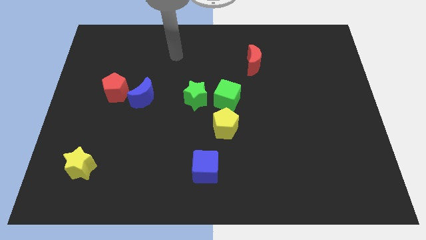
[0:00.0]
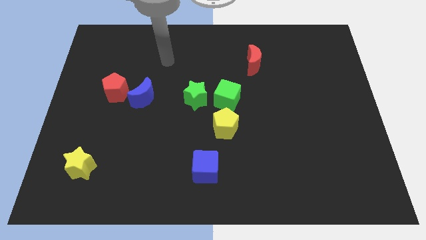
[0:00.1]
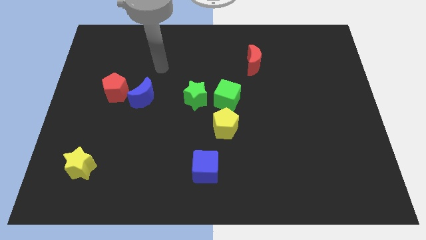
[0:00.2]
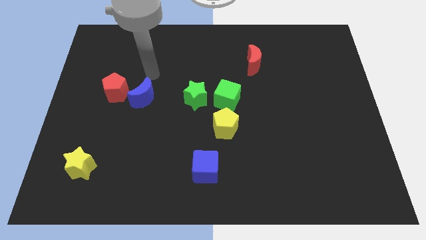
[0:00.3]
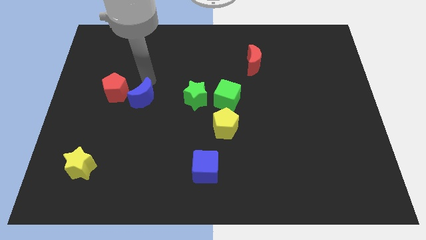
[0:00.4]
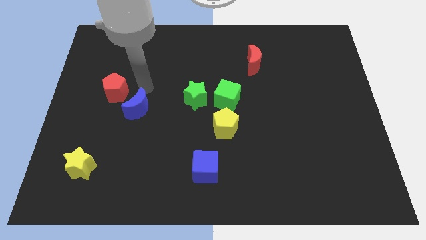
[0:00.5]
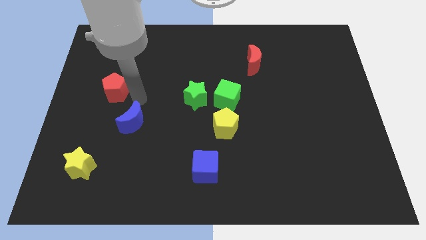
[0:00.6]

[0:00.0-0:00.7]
move the red pentagon away from the blue moon

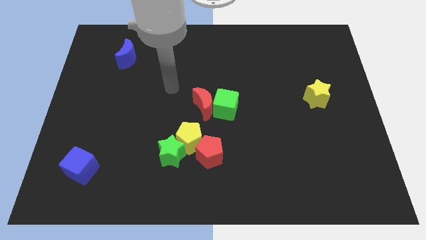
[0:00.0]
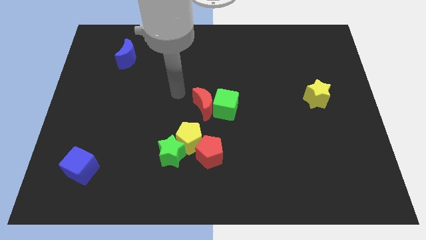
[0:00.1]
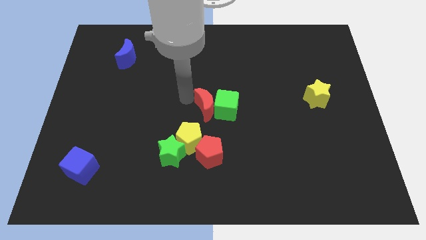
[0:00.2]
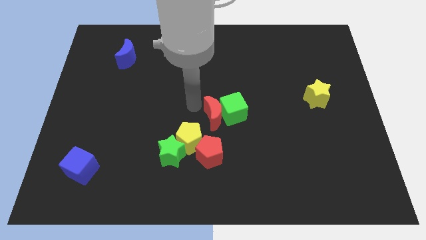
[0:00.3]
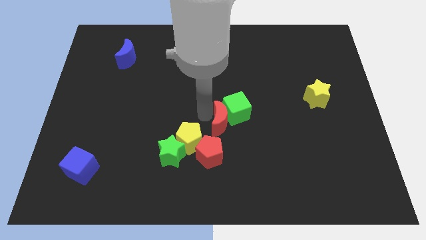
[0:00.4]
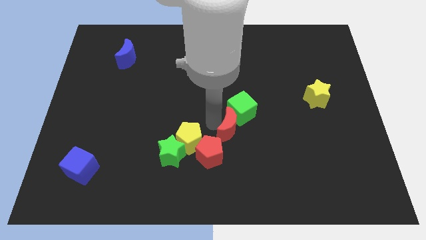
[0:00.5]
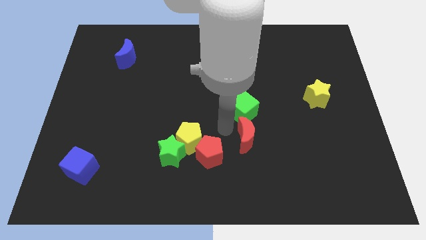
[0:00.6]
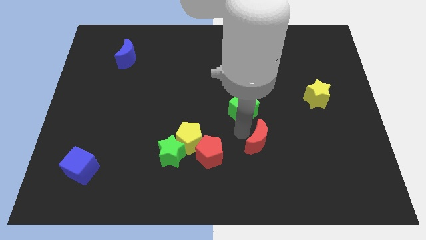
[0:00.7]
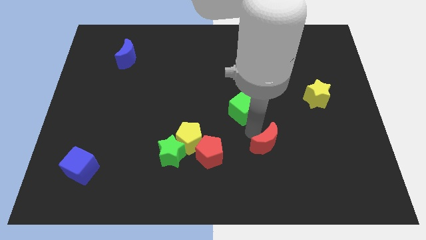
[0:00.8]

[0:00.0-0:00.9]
move the green cube away from the red moon

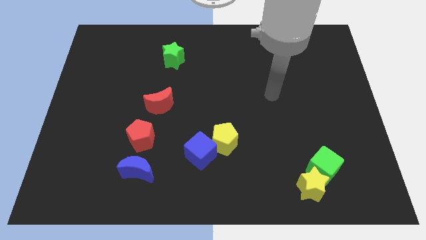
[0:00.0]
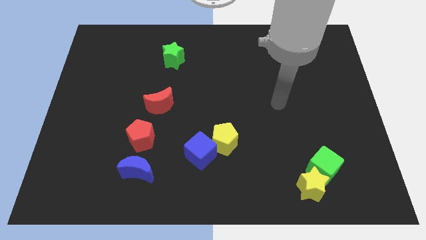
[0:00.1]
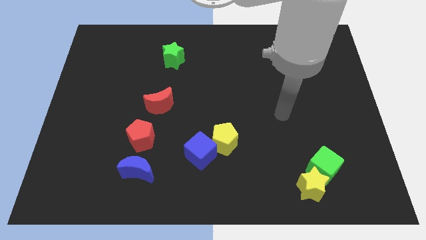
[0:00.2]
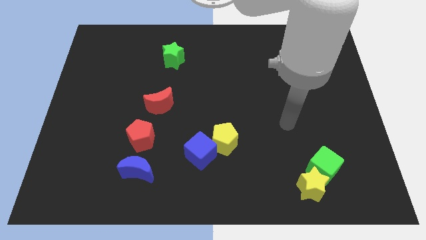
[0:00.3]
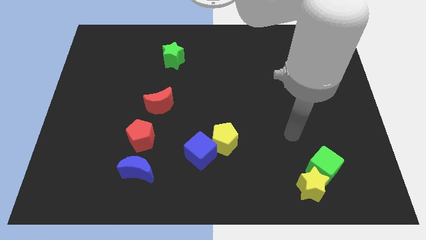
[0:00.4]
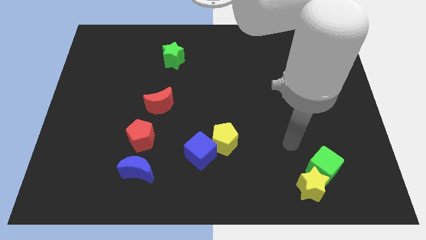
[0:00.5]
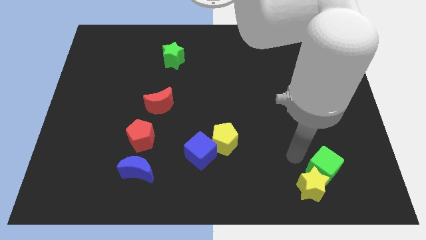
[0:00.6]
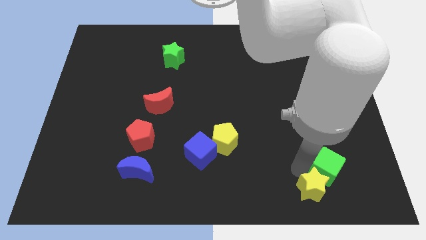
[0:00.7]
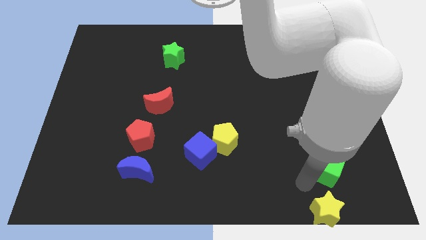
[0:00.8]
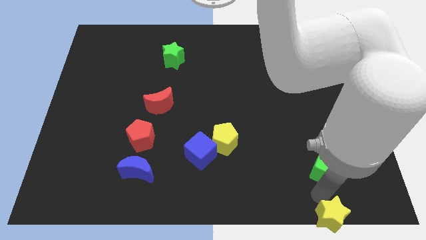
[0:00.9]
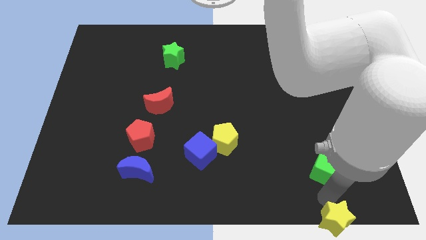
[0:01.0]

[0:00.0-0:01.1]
separate the green cube from the yellow star

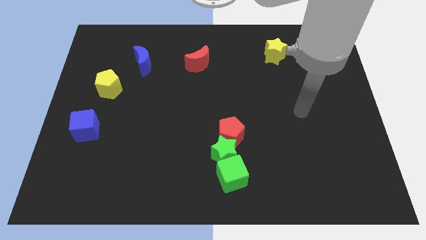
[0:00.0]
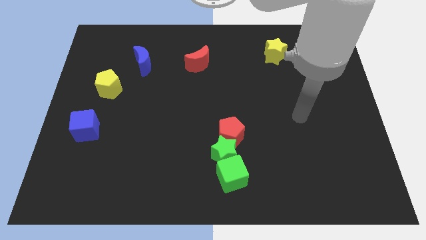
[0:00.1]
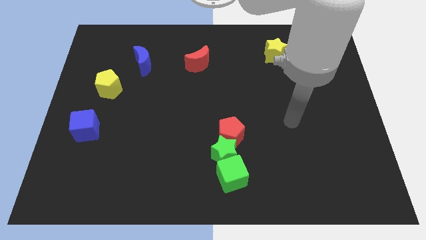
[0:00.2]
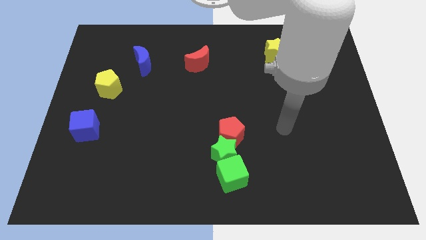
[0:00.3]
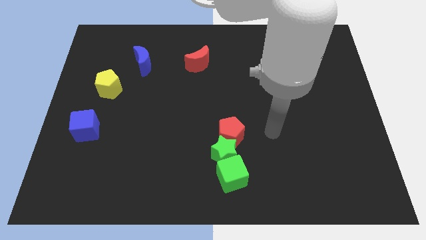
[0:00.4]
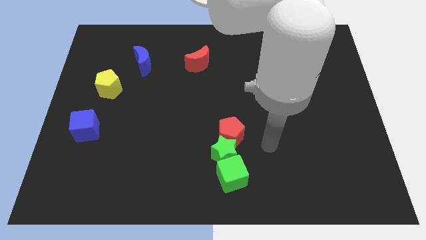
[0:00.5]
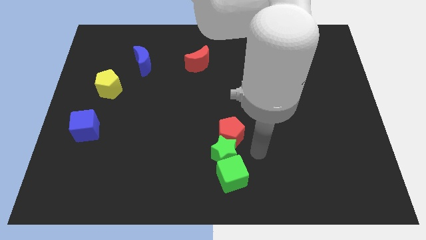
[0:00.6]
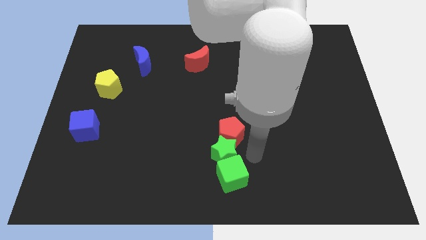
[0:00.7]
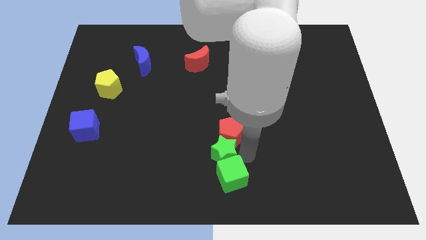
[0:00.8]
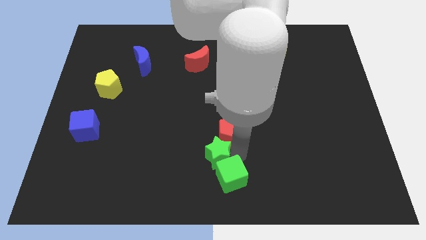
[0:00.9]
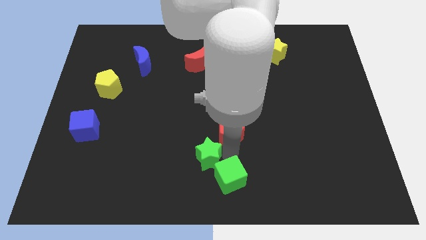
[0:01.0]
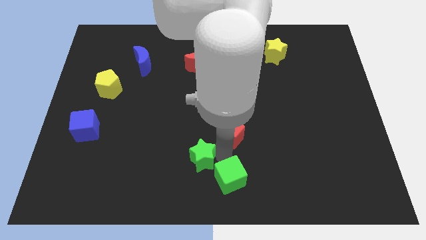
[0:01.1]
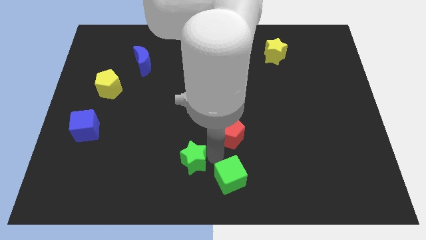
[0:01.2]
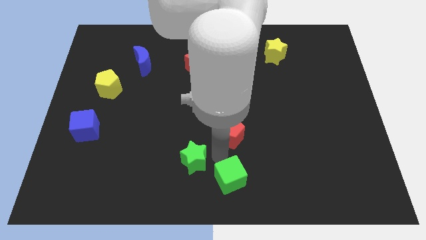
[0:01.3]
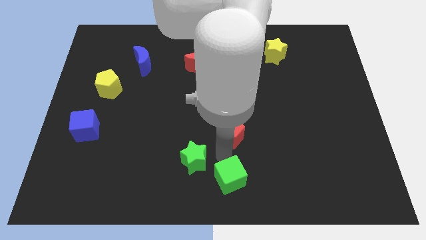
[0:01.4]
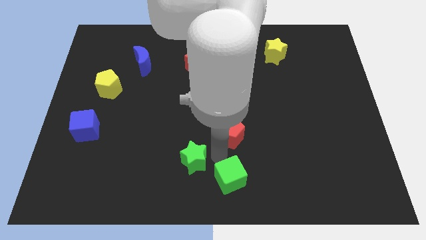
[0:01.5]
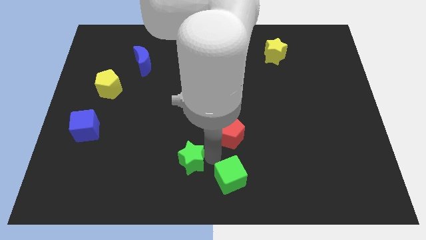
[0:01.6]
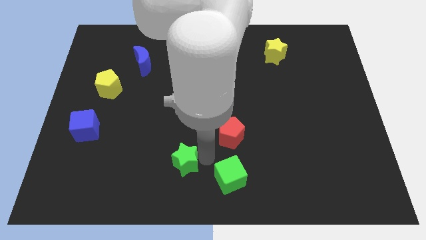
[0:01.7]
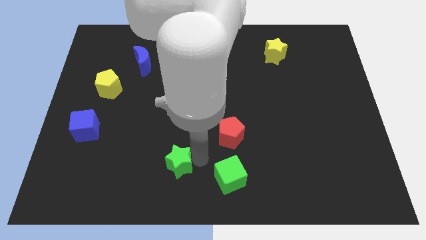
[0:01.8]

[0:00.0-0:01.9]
move the green star away from the red pentagon and green cube

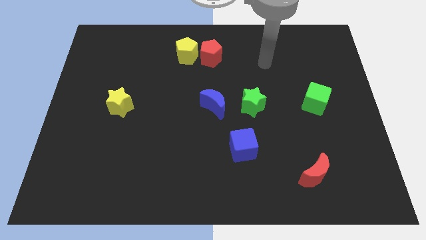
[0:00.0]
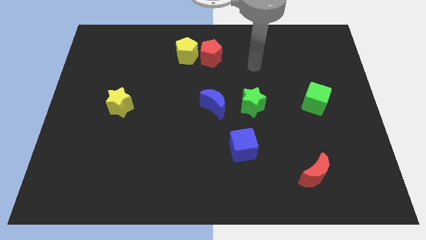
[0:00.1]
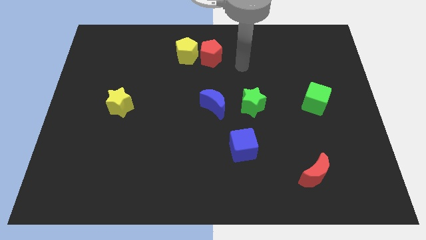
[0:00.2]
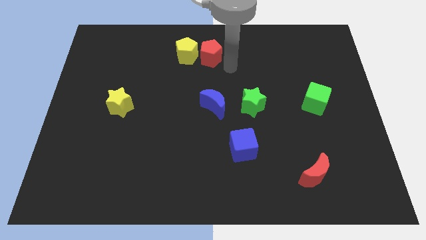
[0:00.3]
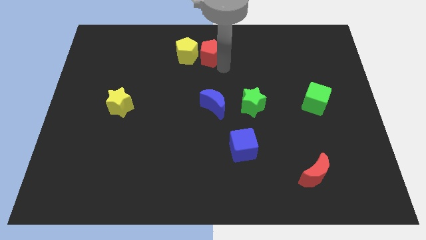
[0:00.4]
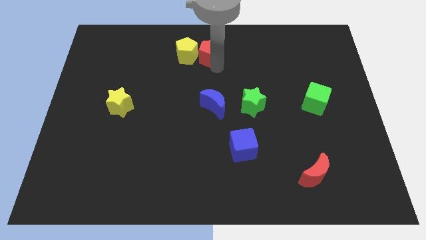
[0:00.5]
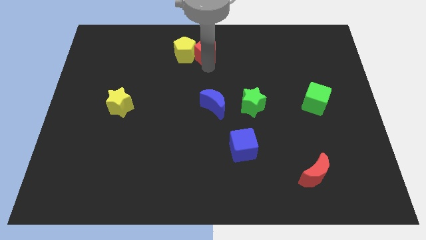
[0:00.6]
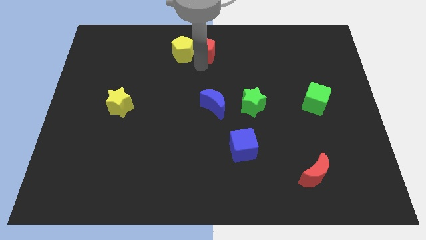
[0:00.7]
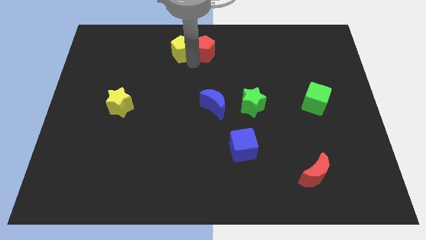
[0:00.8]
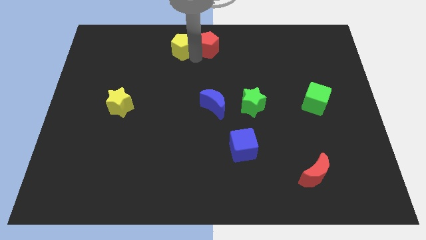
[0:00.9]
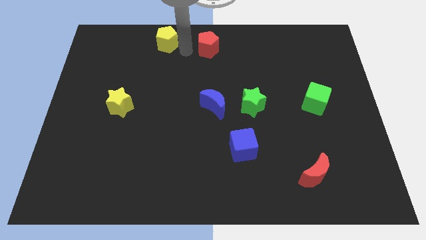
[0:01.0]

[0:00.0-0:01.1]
separate the red pentagon from the yellow pentagon

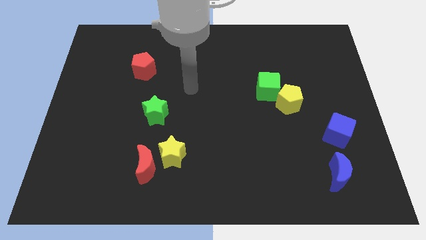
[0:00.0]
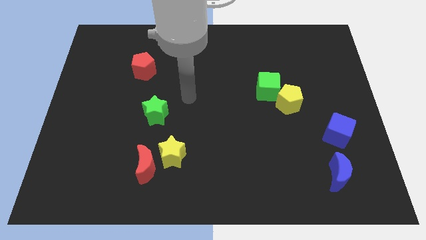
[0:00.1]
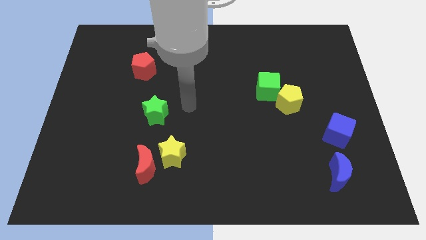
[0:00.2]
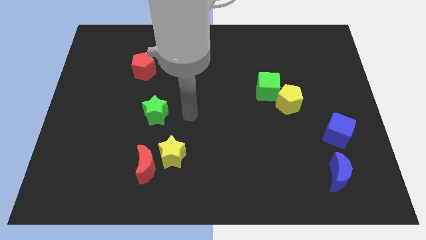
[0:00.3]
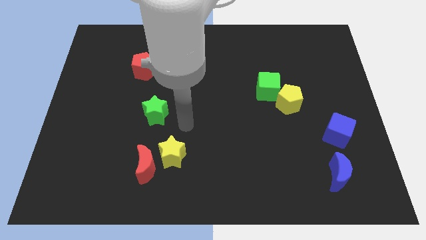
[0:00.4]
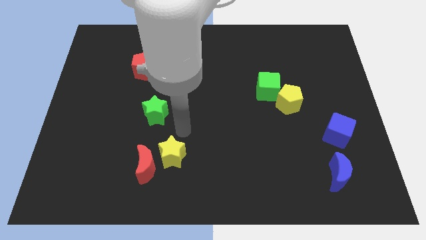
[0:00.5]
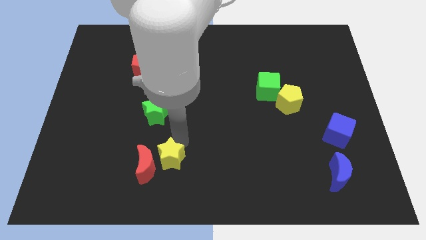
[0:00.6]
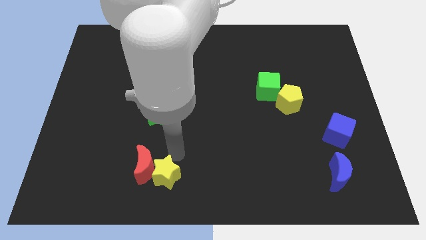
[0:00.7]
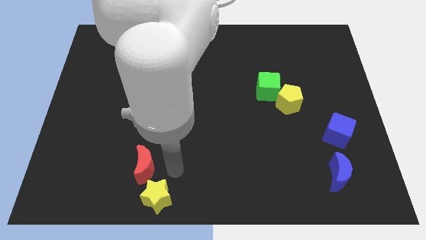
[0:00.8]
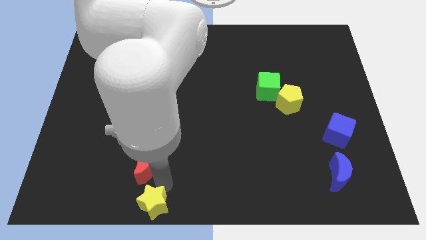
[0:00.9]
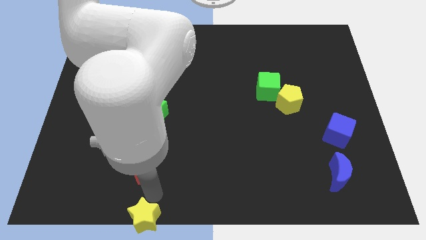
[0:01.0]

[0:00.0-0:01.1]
pull the red moon apart from the yellow star

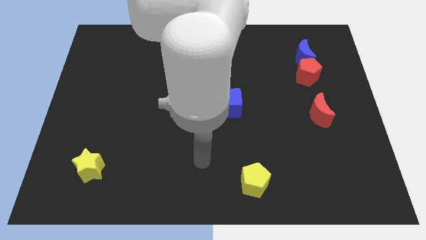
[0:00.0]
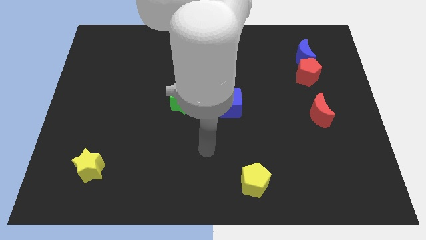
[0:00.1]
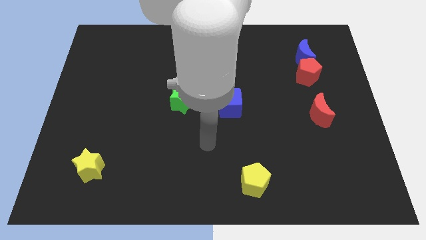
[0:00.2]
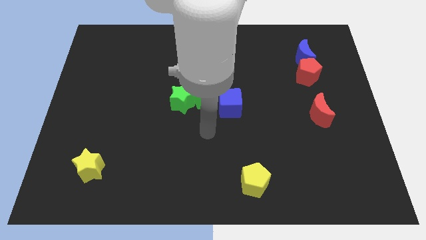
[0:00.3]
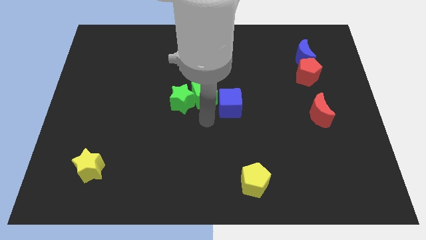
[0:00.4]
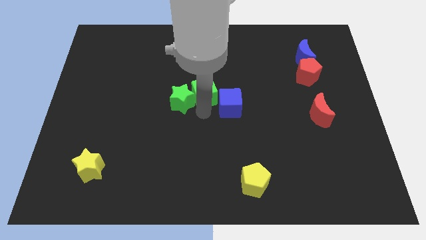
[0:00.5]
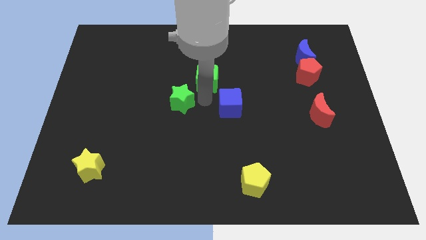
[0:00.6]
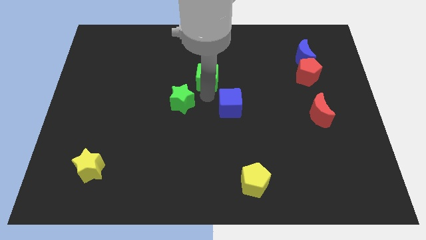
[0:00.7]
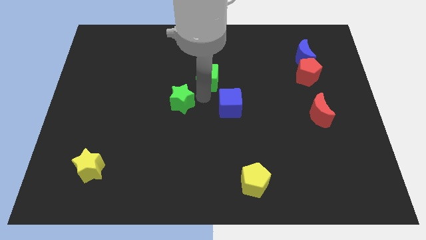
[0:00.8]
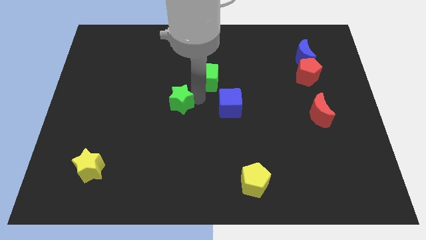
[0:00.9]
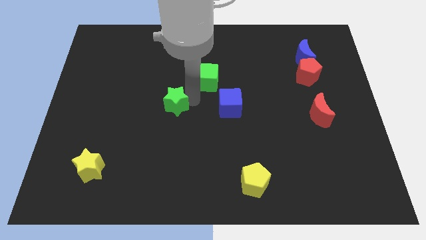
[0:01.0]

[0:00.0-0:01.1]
move the green star away from the green cube

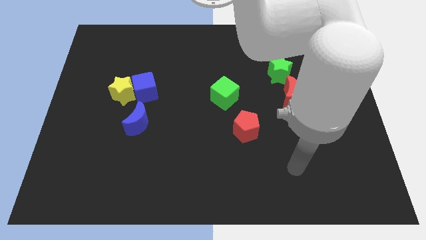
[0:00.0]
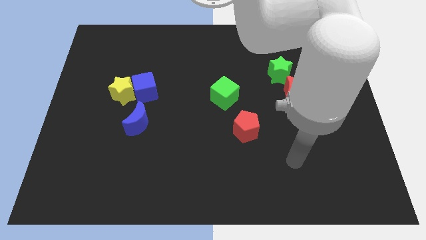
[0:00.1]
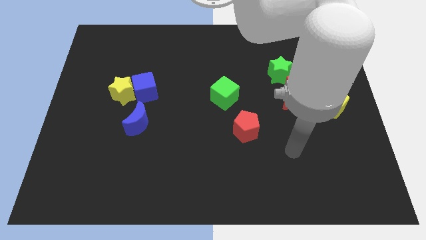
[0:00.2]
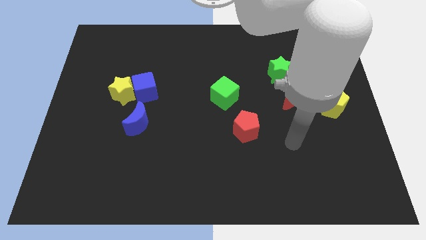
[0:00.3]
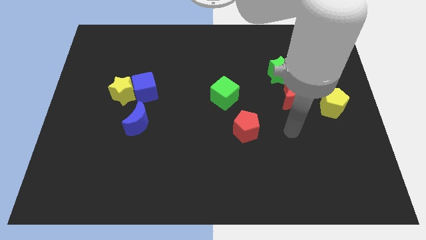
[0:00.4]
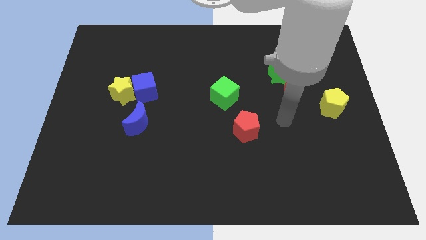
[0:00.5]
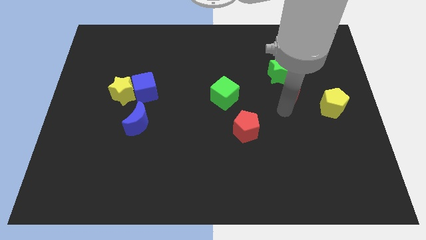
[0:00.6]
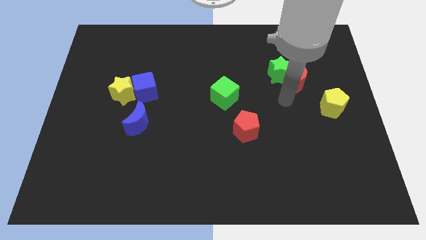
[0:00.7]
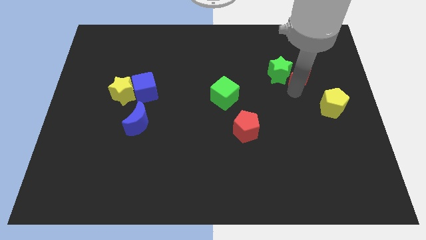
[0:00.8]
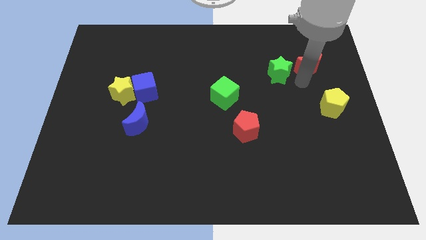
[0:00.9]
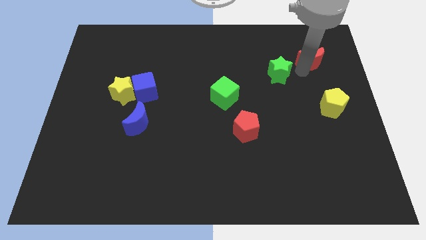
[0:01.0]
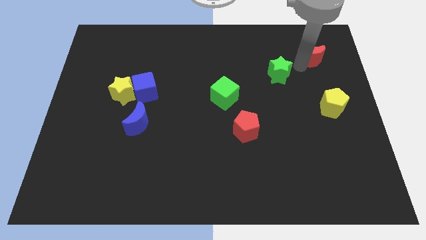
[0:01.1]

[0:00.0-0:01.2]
separate the green star from the red moon

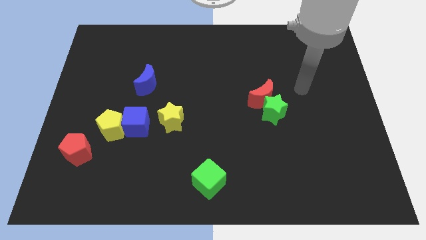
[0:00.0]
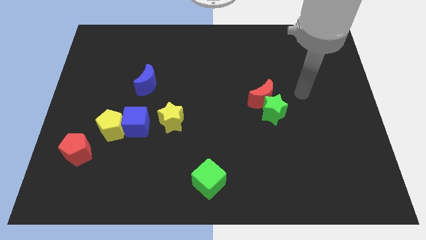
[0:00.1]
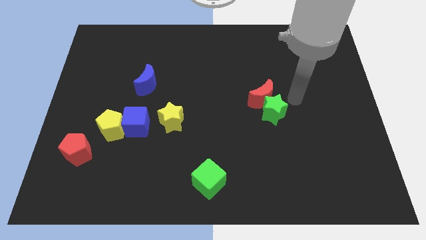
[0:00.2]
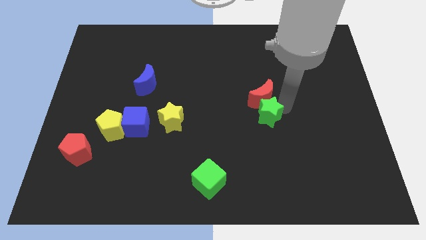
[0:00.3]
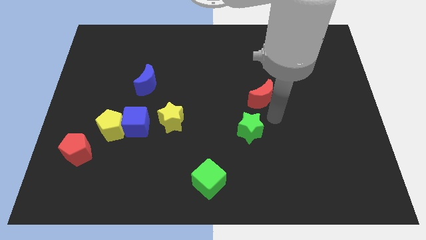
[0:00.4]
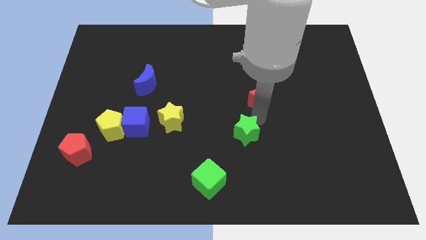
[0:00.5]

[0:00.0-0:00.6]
move the red moon away from the green star
